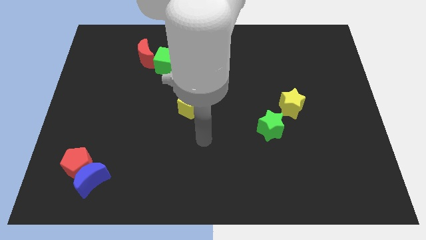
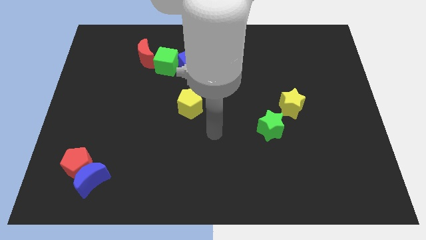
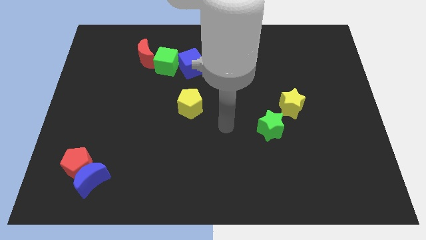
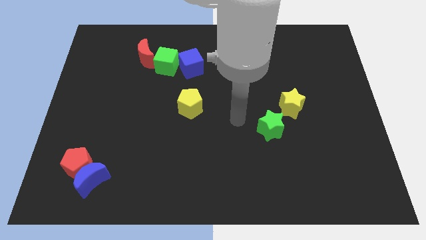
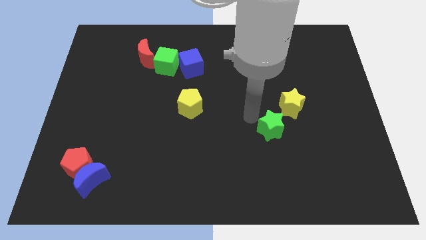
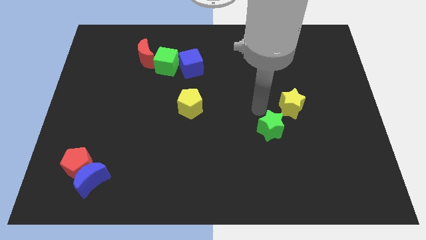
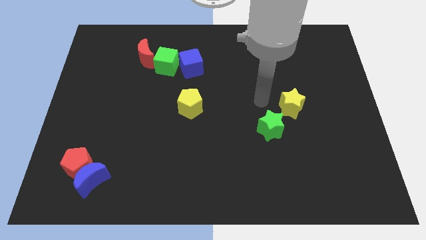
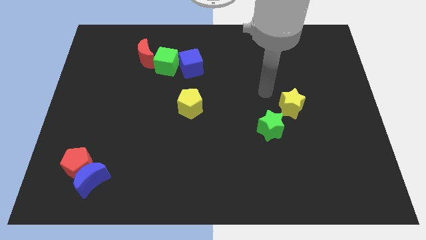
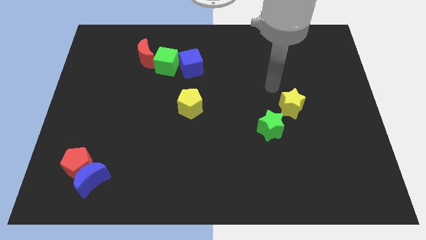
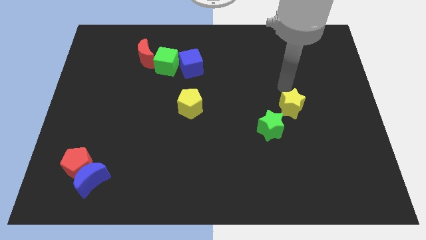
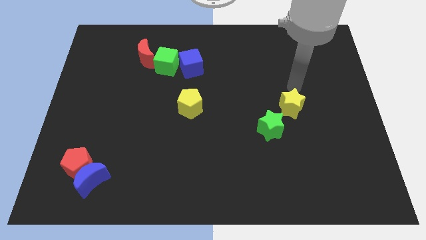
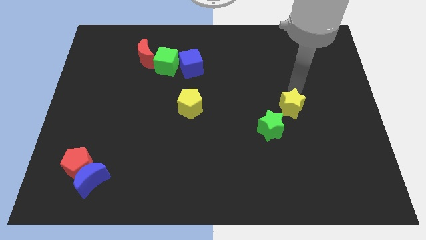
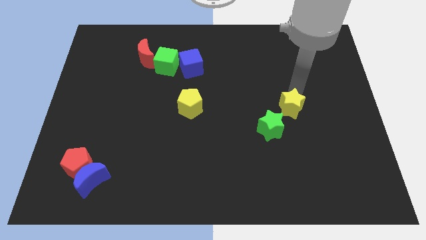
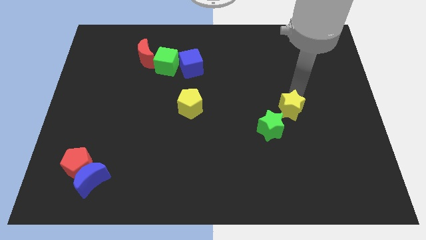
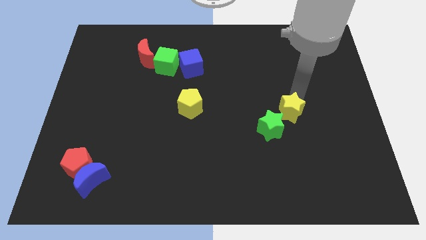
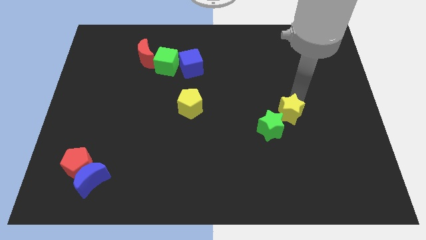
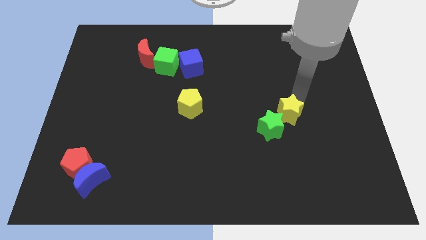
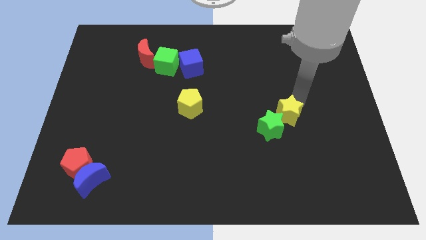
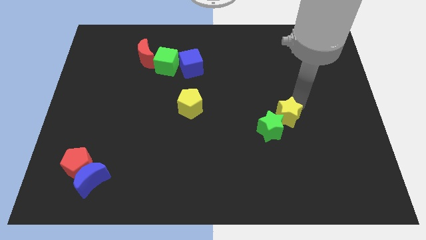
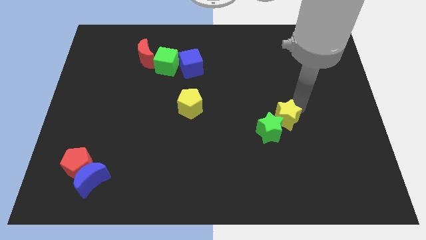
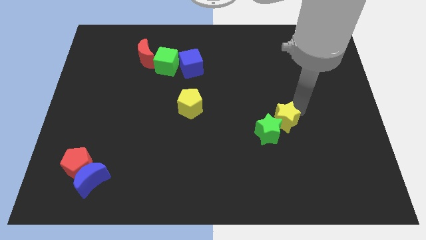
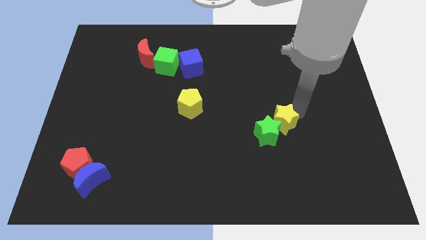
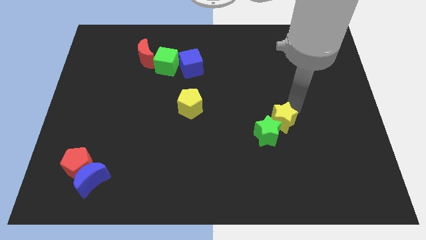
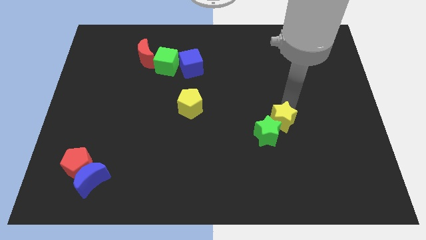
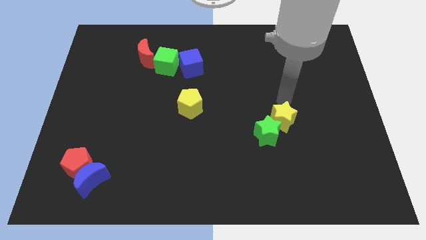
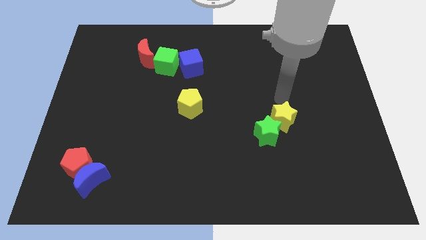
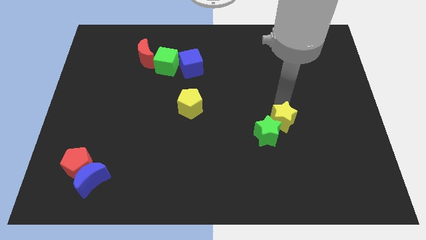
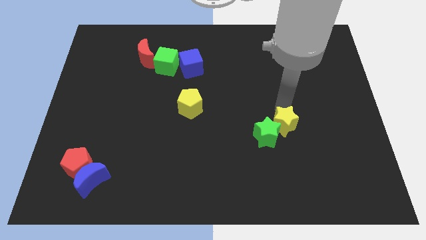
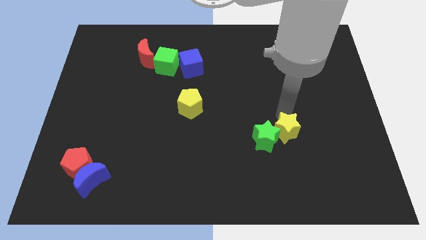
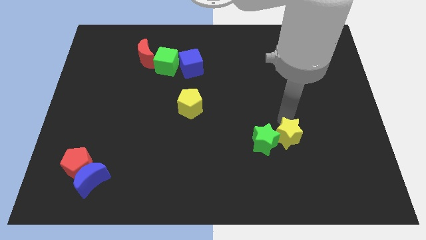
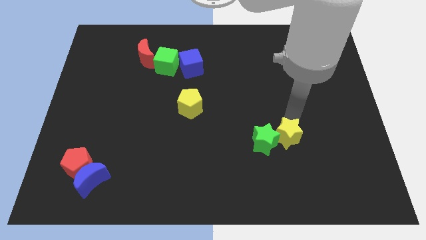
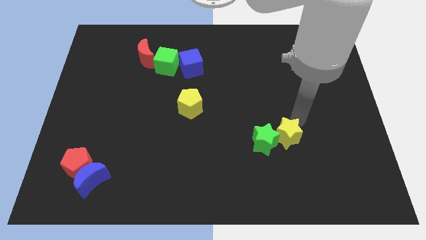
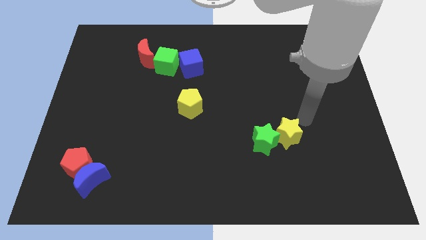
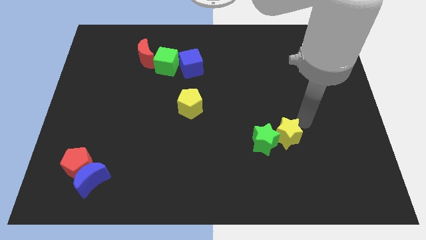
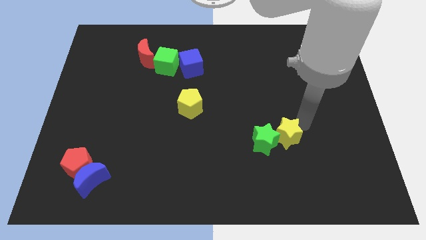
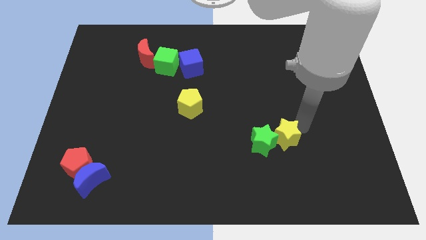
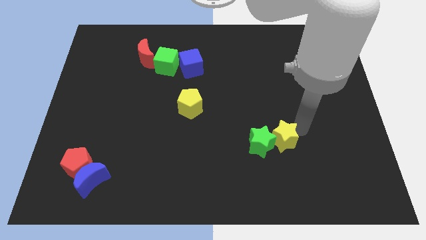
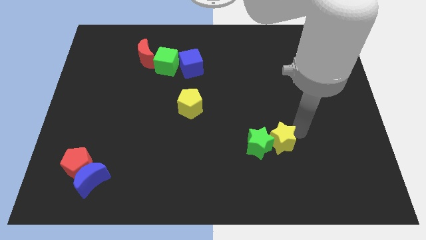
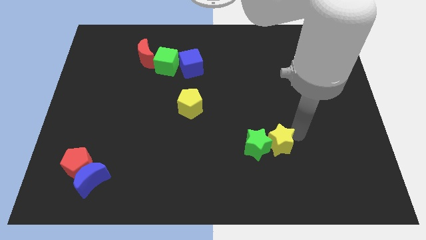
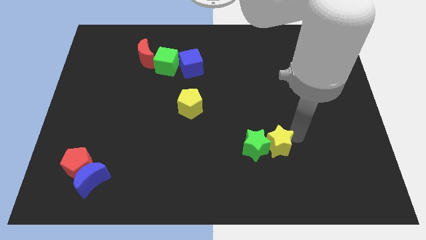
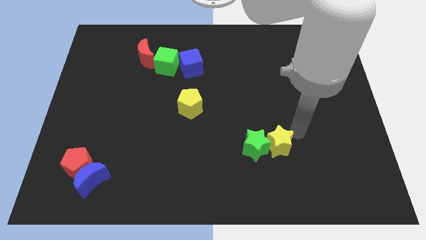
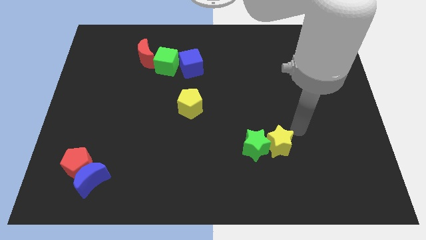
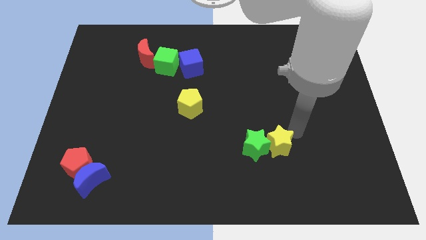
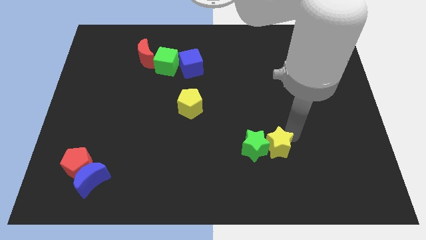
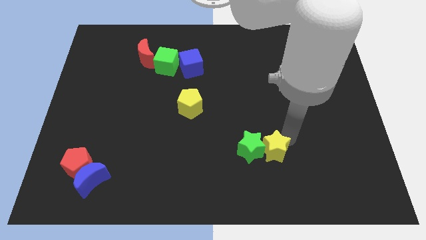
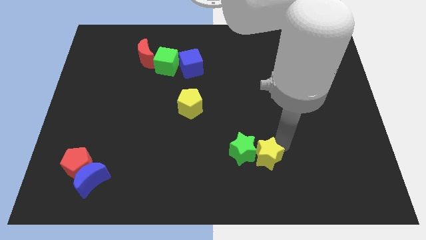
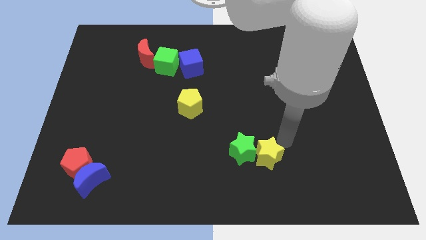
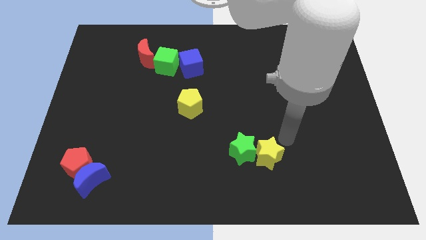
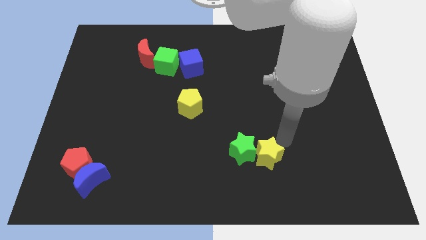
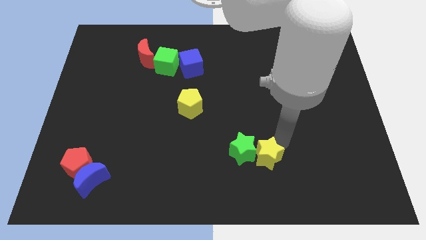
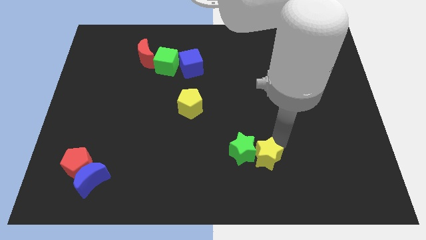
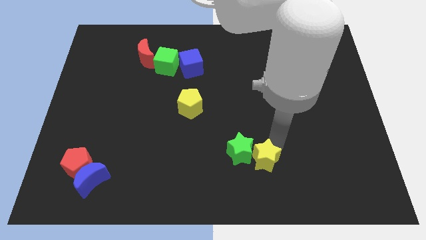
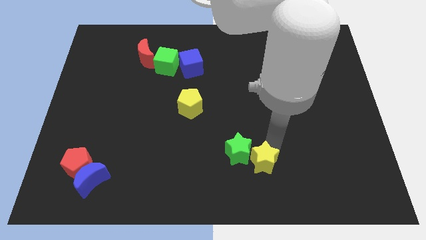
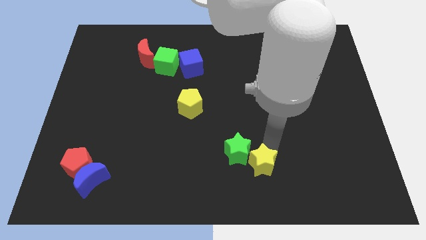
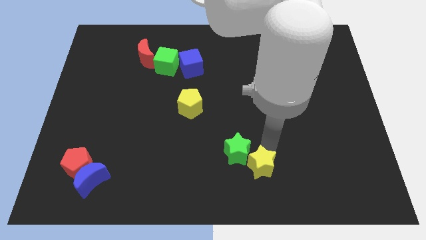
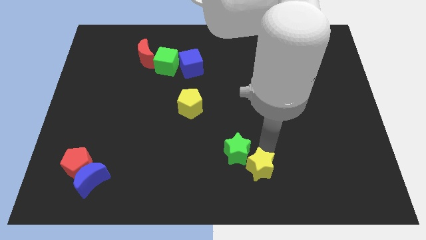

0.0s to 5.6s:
put the yellow star to the bottom
